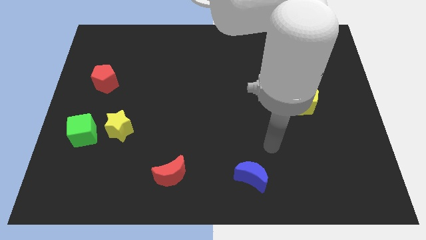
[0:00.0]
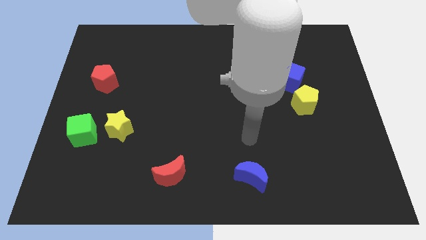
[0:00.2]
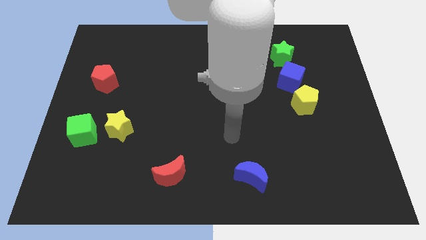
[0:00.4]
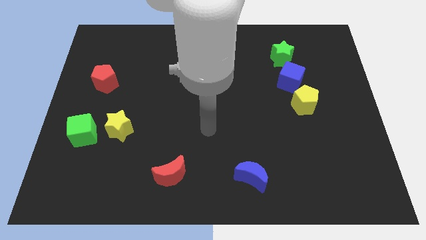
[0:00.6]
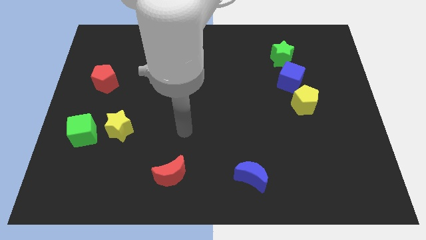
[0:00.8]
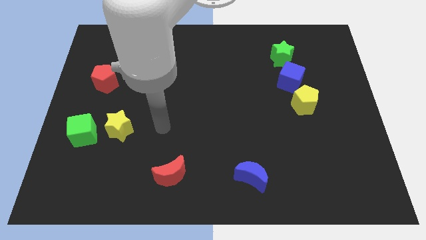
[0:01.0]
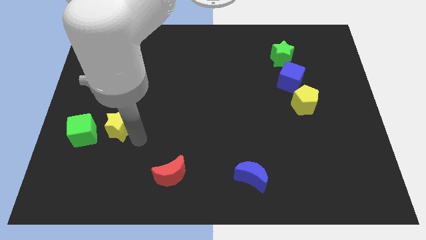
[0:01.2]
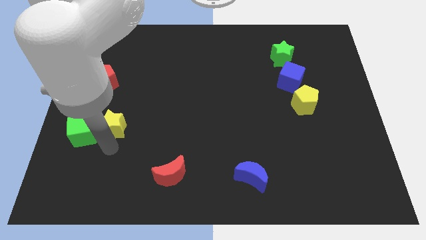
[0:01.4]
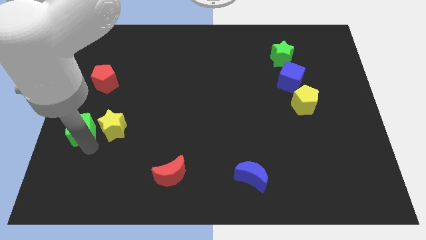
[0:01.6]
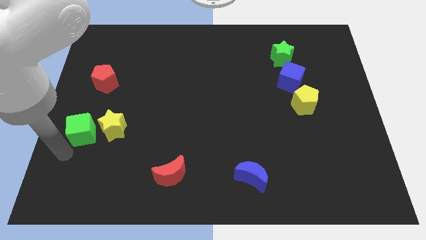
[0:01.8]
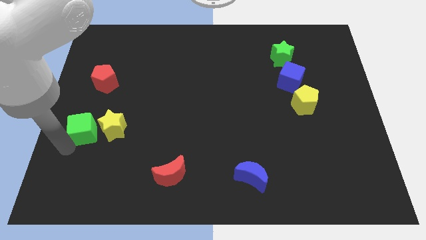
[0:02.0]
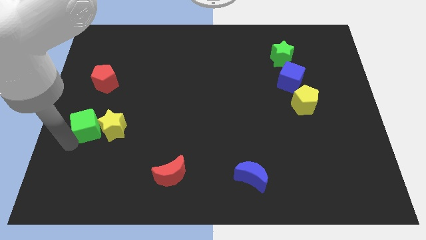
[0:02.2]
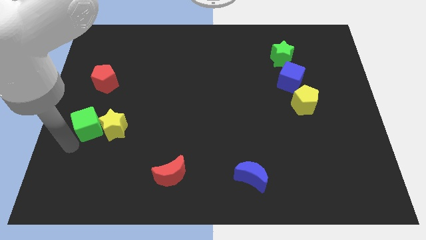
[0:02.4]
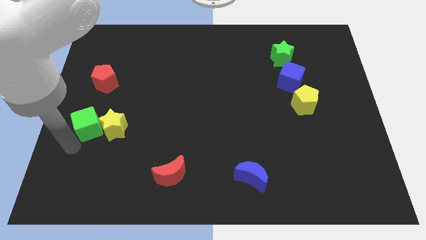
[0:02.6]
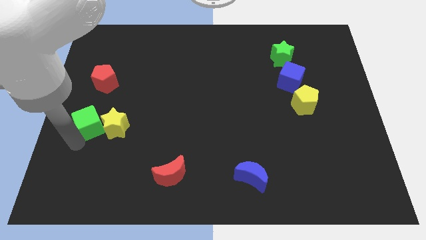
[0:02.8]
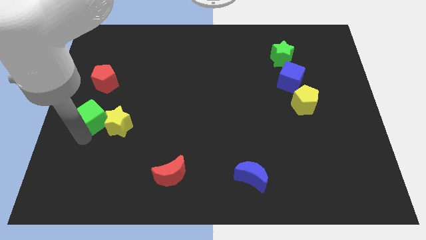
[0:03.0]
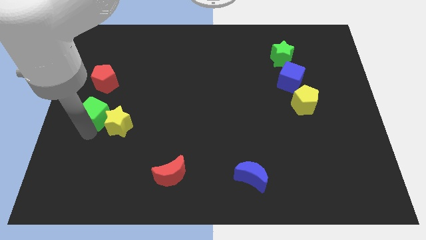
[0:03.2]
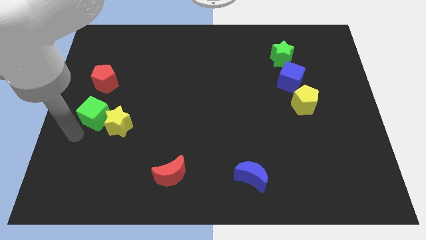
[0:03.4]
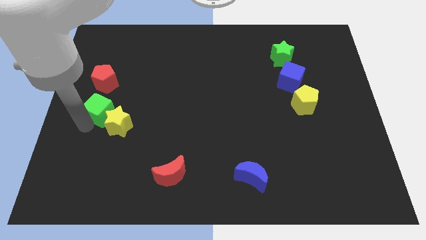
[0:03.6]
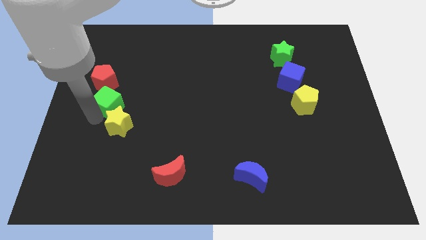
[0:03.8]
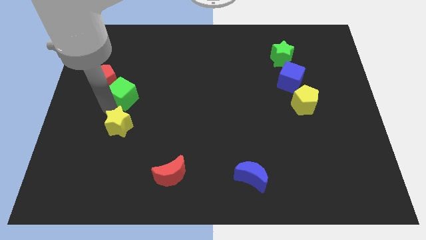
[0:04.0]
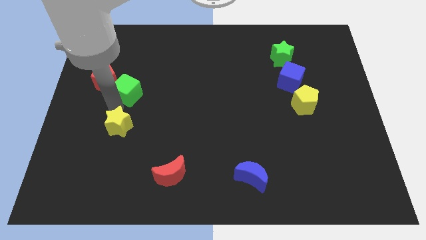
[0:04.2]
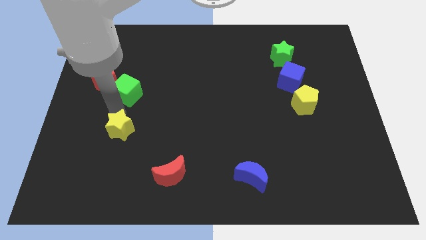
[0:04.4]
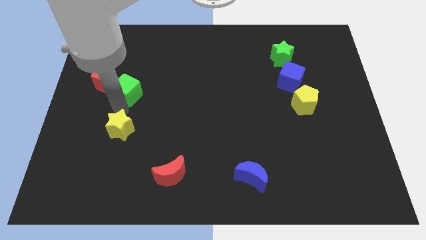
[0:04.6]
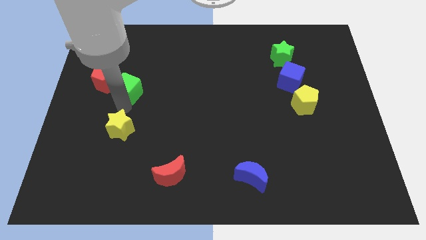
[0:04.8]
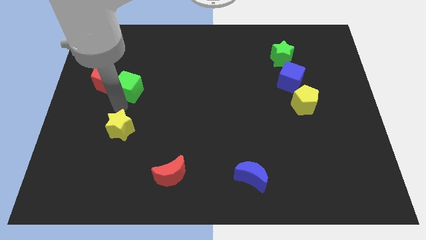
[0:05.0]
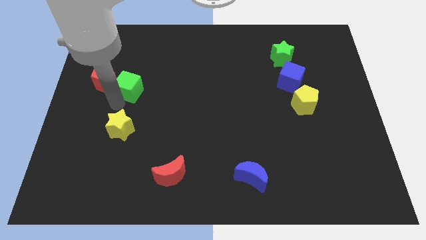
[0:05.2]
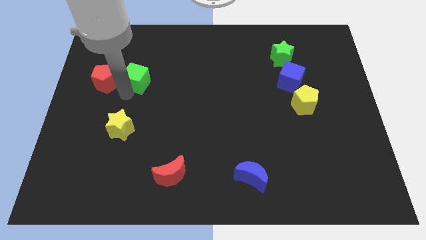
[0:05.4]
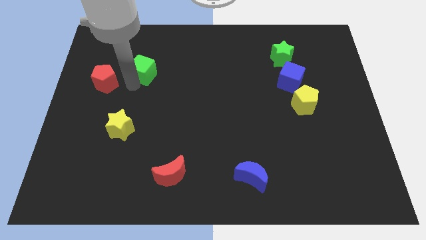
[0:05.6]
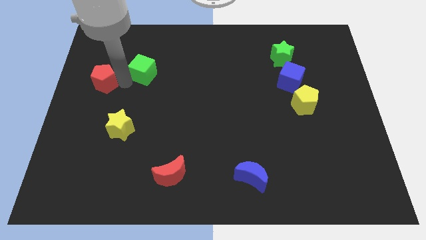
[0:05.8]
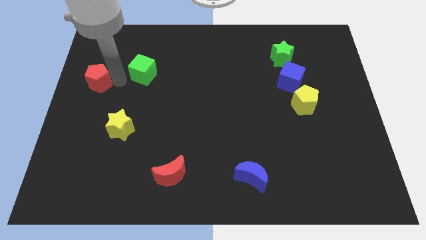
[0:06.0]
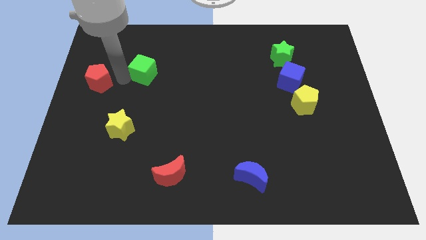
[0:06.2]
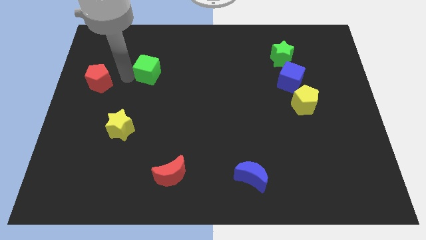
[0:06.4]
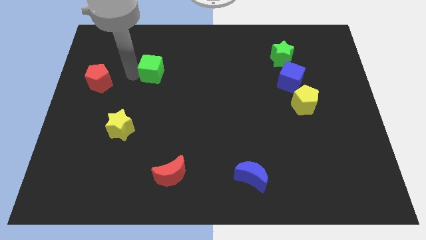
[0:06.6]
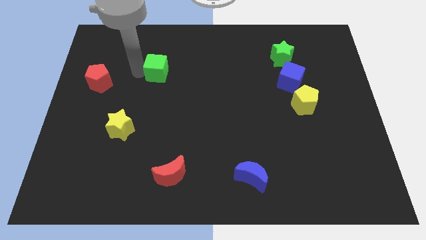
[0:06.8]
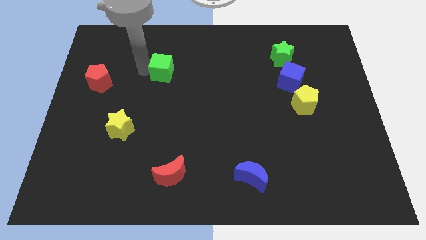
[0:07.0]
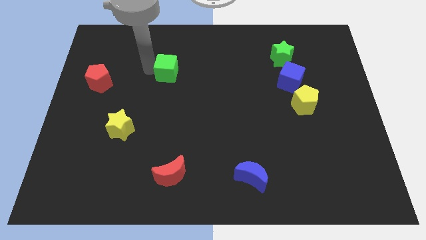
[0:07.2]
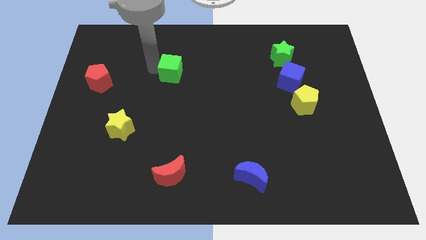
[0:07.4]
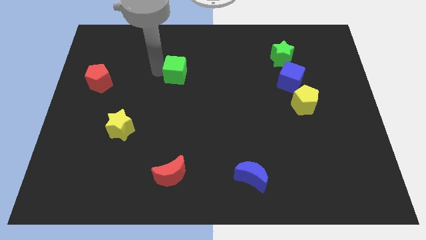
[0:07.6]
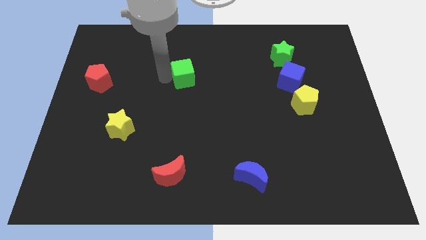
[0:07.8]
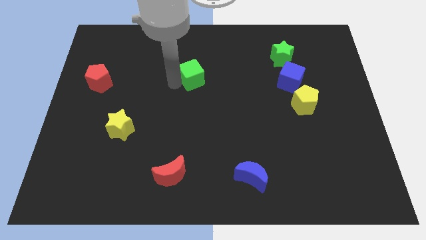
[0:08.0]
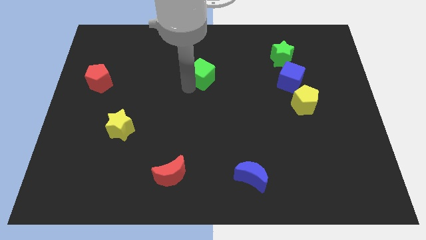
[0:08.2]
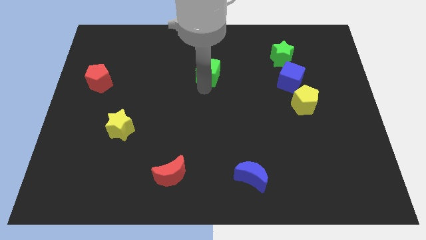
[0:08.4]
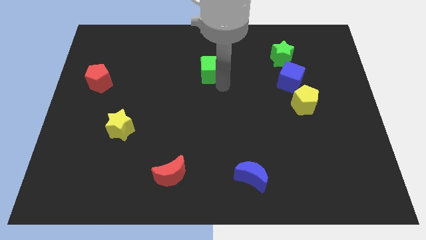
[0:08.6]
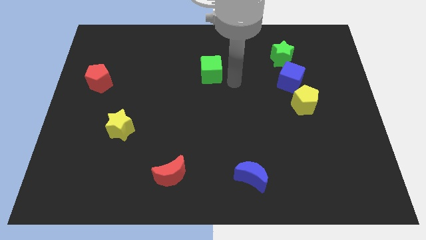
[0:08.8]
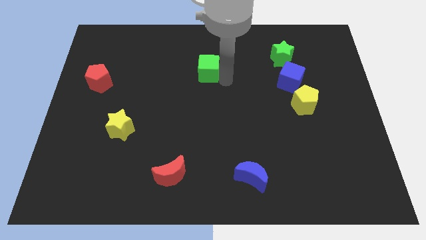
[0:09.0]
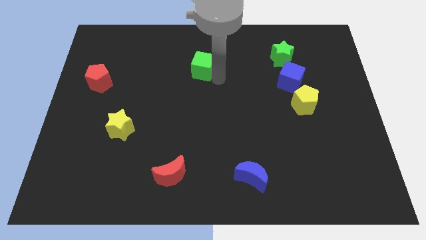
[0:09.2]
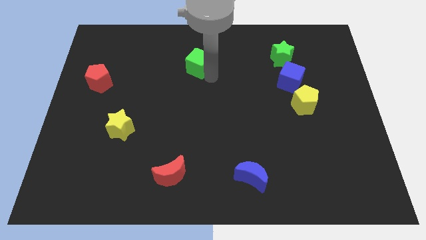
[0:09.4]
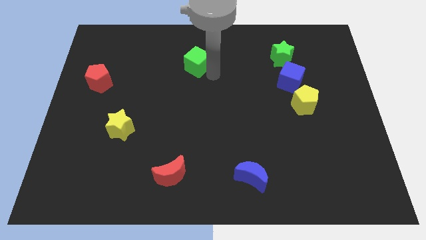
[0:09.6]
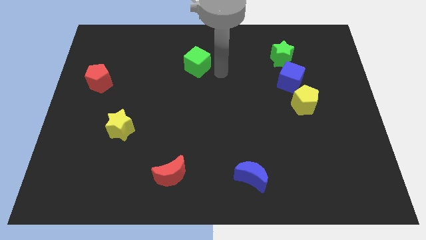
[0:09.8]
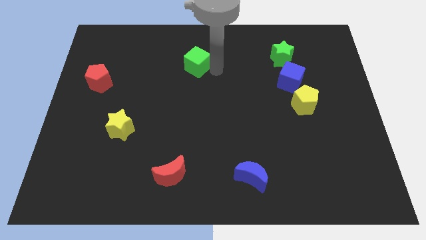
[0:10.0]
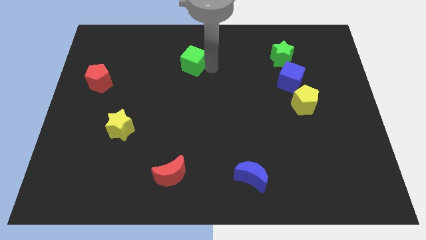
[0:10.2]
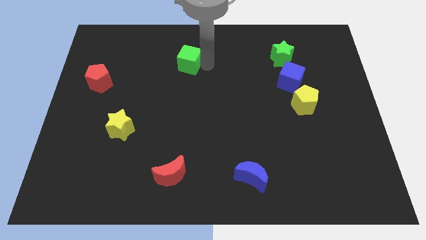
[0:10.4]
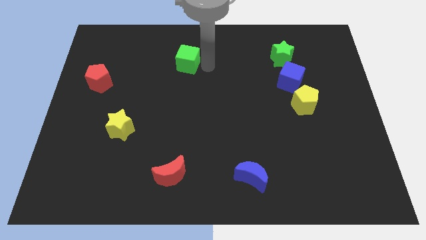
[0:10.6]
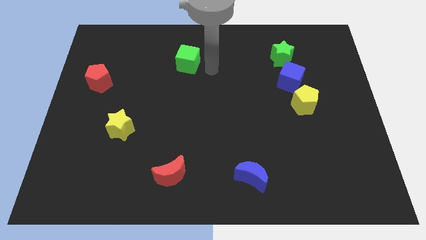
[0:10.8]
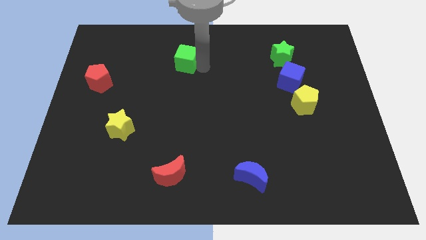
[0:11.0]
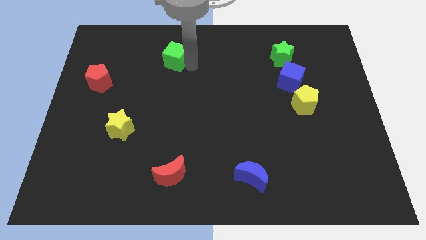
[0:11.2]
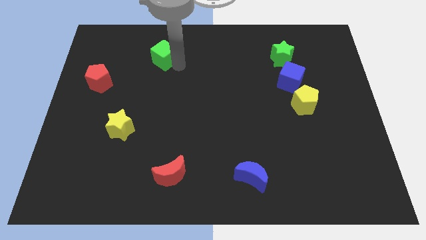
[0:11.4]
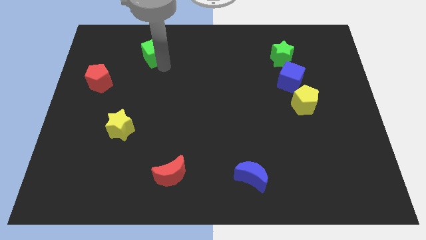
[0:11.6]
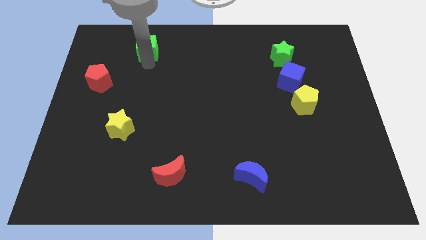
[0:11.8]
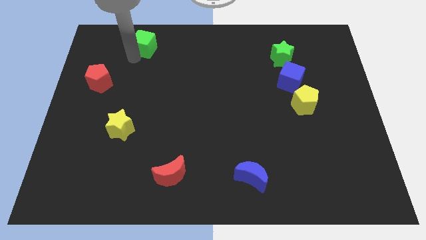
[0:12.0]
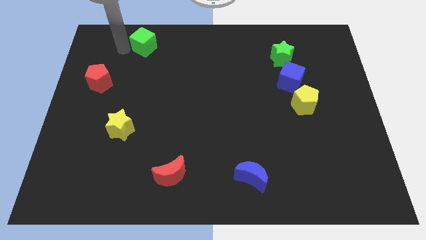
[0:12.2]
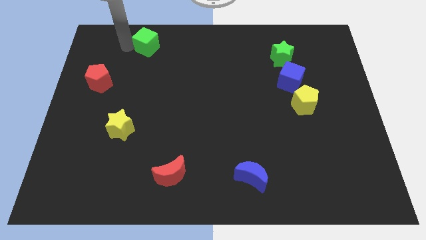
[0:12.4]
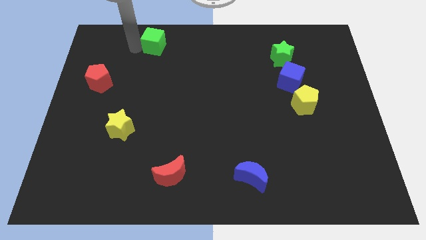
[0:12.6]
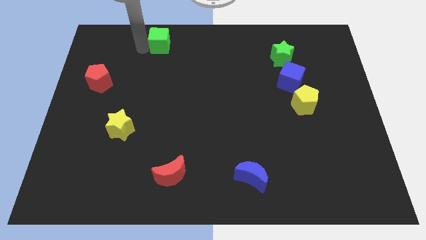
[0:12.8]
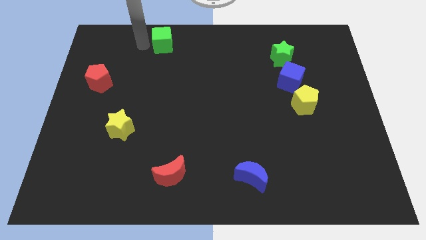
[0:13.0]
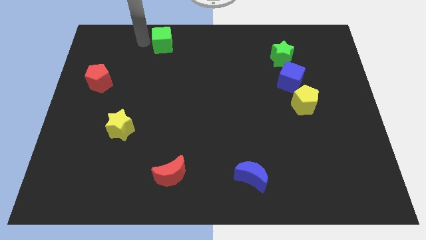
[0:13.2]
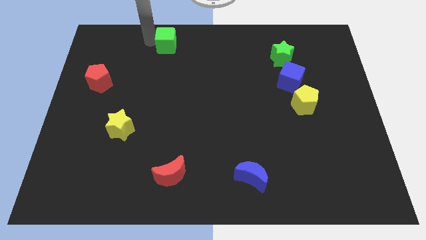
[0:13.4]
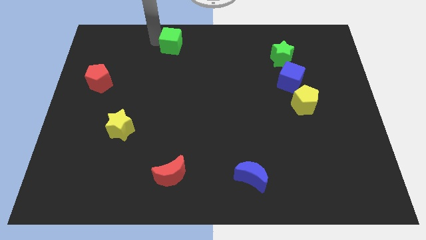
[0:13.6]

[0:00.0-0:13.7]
push the green cube to the towards your base
